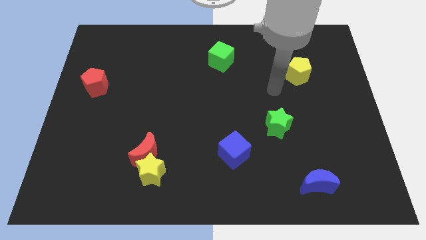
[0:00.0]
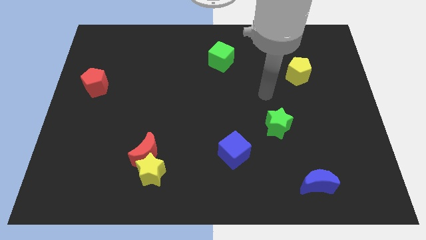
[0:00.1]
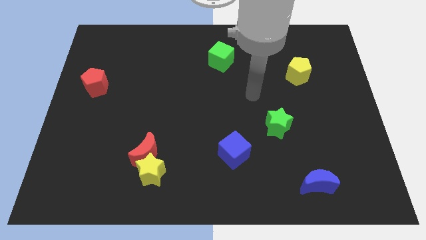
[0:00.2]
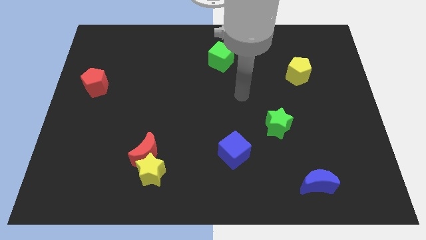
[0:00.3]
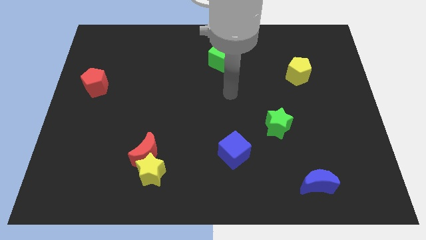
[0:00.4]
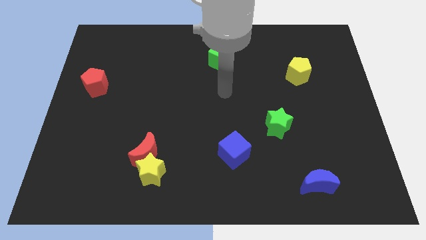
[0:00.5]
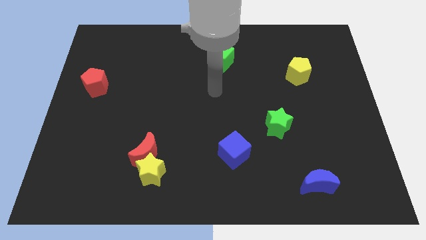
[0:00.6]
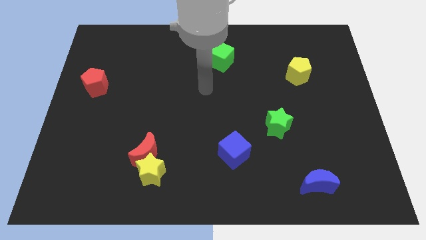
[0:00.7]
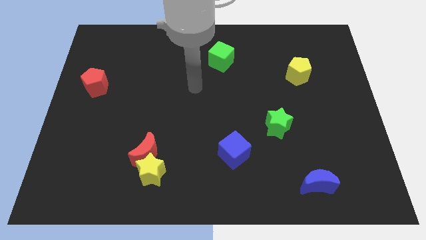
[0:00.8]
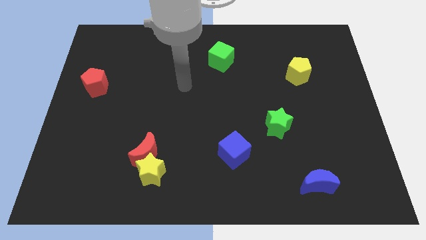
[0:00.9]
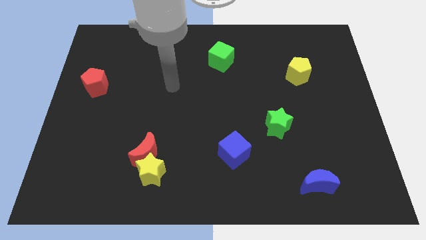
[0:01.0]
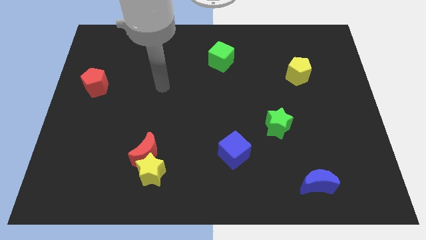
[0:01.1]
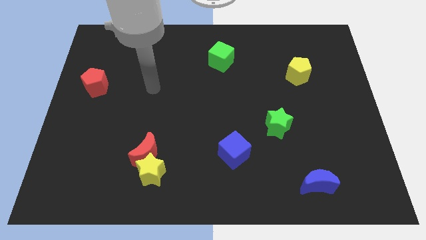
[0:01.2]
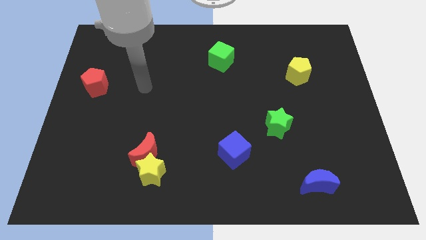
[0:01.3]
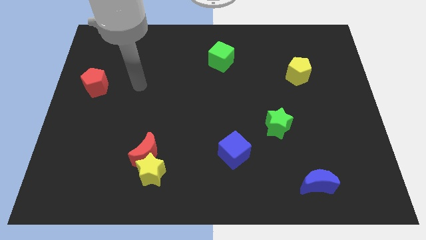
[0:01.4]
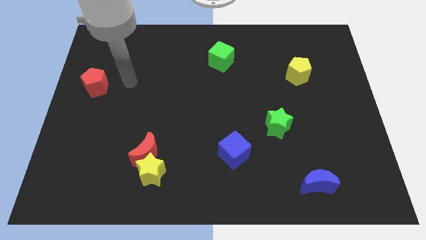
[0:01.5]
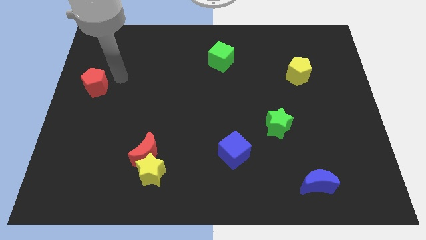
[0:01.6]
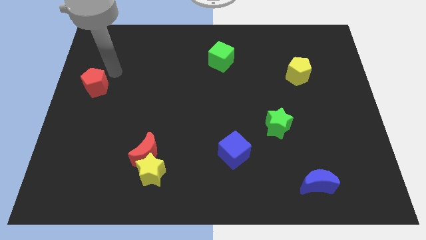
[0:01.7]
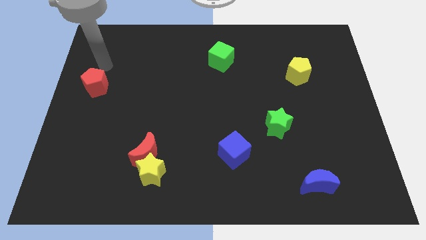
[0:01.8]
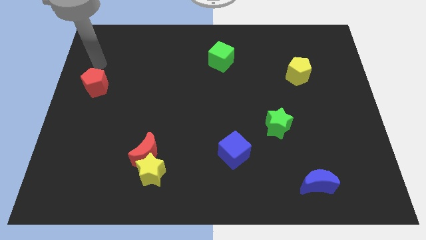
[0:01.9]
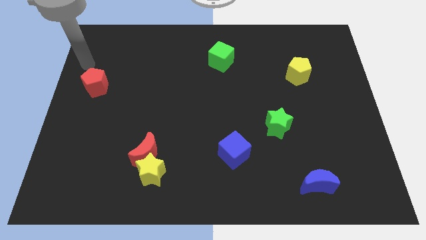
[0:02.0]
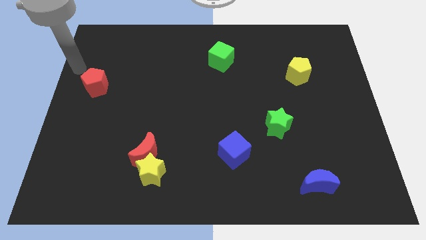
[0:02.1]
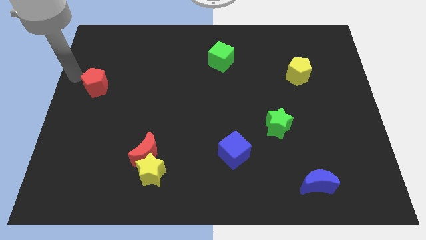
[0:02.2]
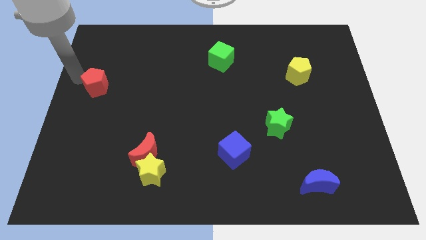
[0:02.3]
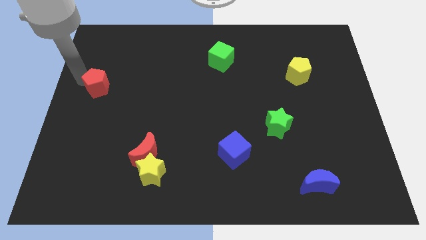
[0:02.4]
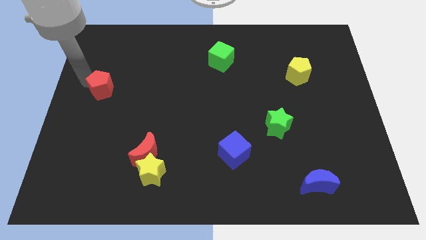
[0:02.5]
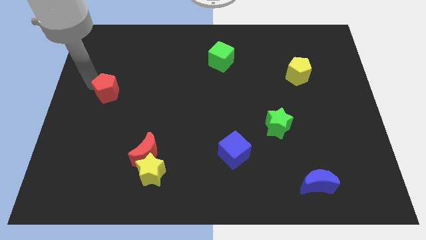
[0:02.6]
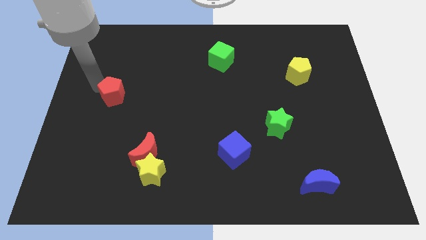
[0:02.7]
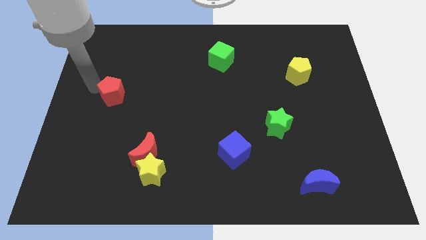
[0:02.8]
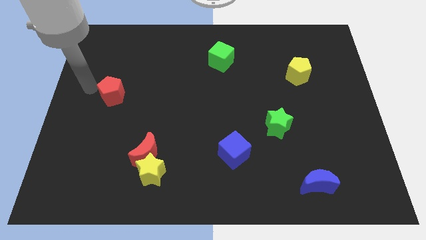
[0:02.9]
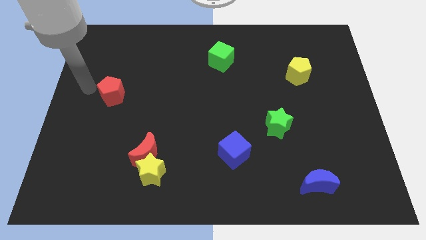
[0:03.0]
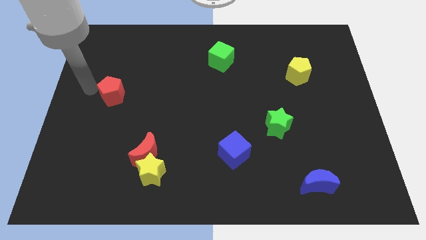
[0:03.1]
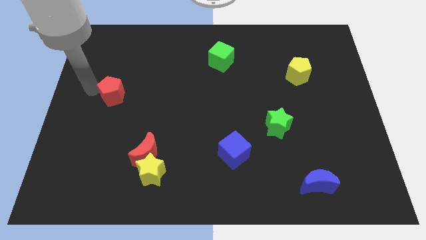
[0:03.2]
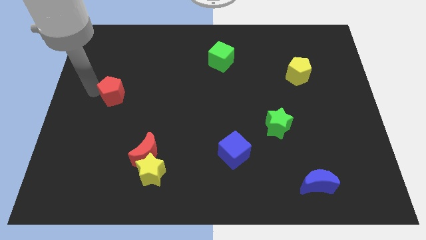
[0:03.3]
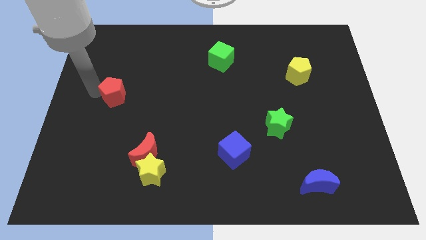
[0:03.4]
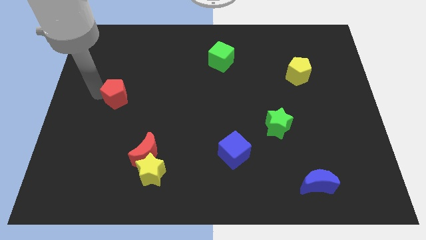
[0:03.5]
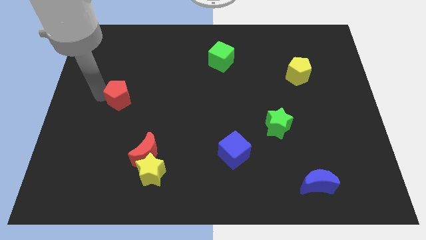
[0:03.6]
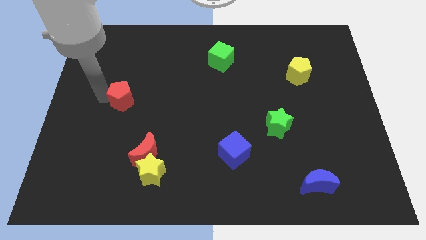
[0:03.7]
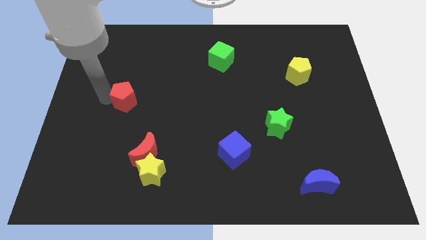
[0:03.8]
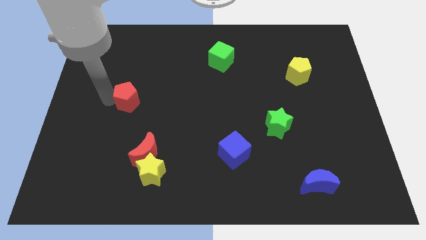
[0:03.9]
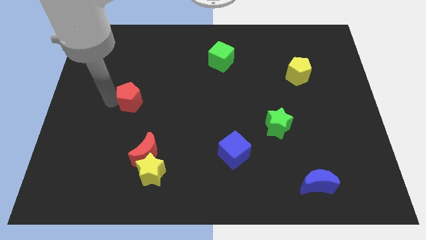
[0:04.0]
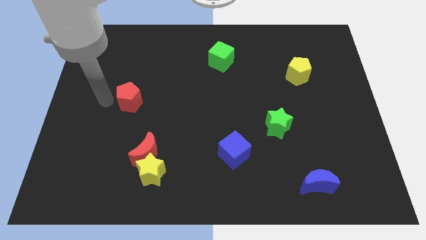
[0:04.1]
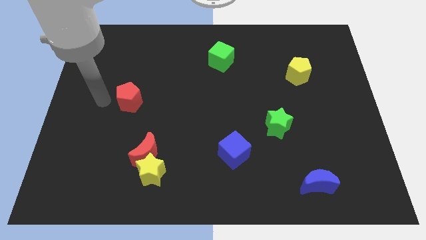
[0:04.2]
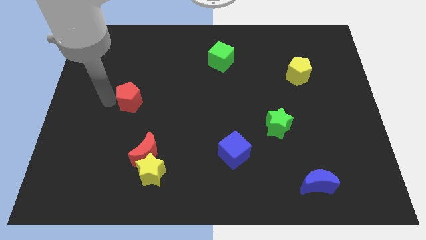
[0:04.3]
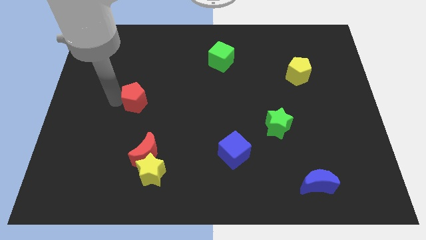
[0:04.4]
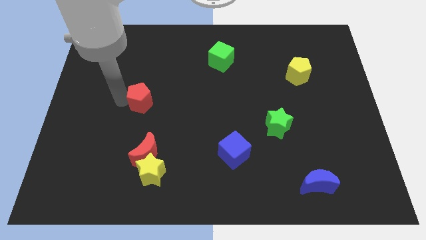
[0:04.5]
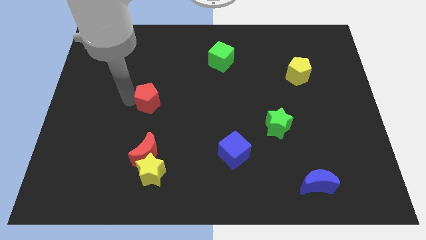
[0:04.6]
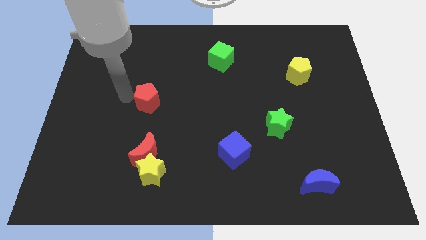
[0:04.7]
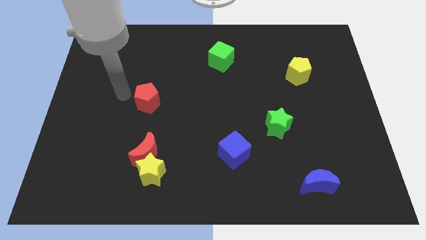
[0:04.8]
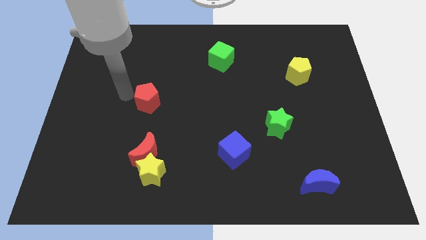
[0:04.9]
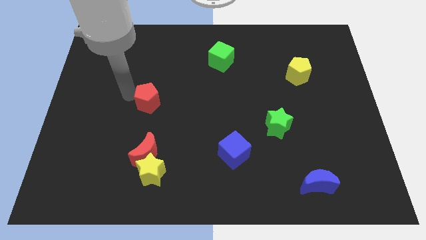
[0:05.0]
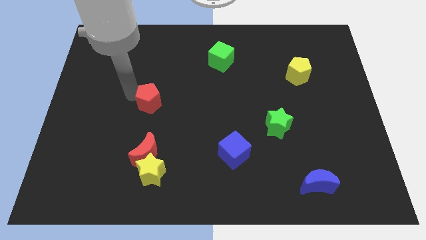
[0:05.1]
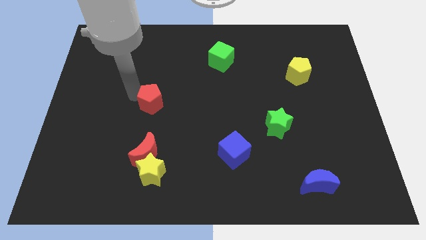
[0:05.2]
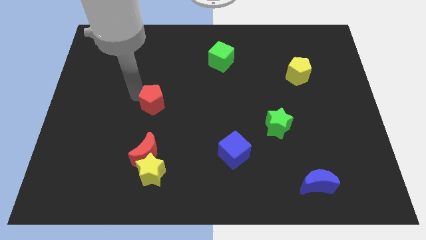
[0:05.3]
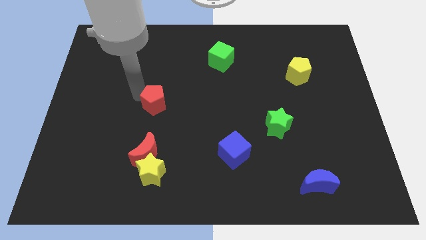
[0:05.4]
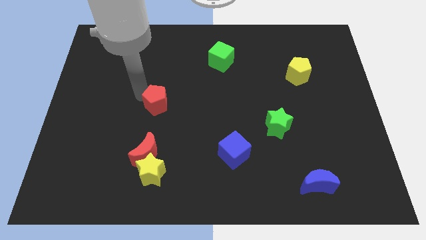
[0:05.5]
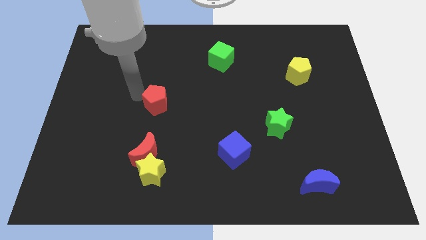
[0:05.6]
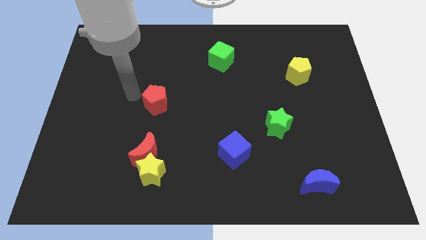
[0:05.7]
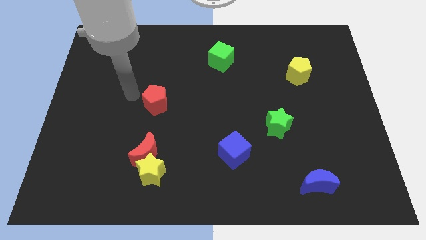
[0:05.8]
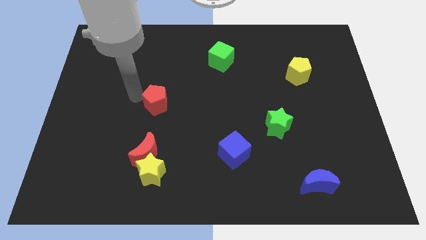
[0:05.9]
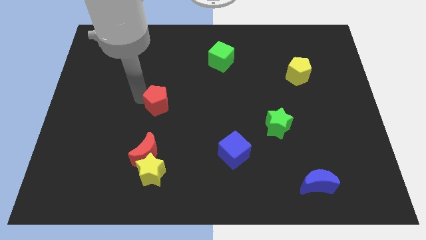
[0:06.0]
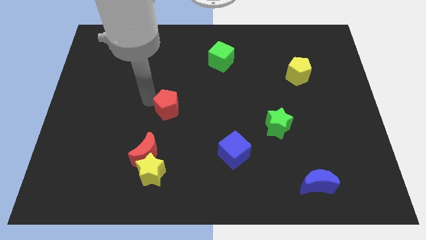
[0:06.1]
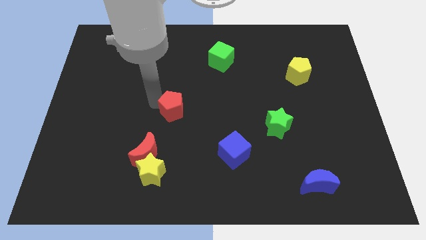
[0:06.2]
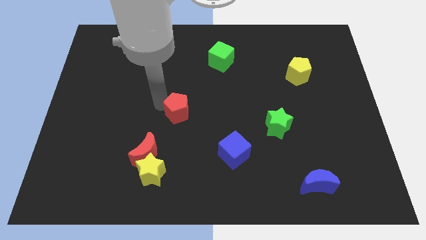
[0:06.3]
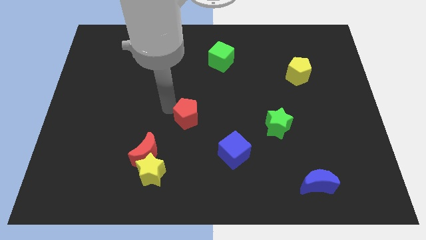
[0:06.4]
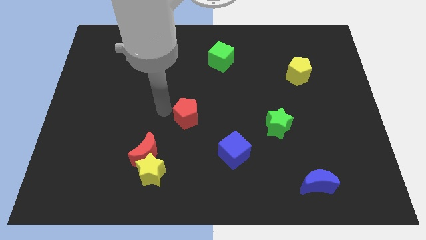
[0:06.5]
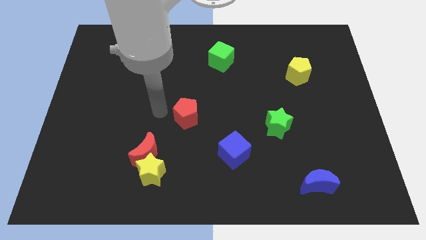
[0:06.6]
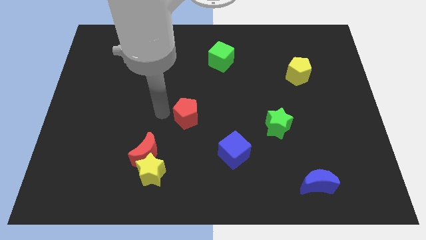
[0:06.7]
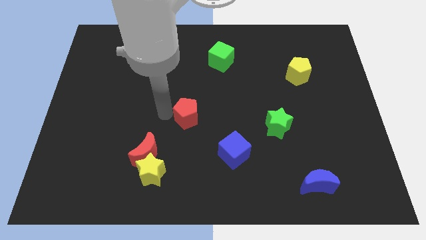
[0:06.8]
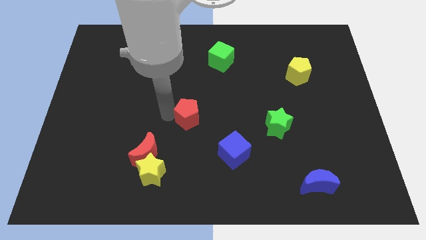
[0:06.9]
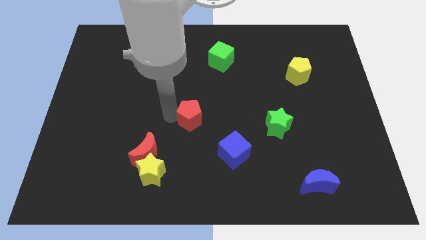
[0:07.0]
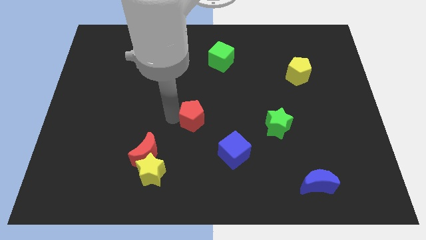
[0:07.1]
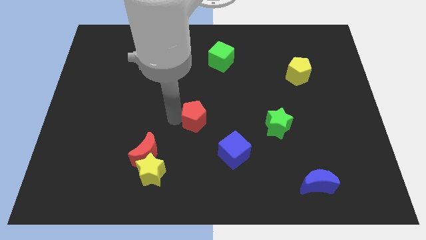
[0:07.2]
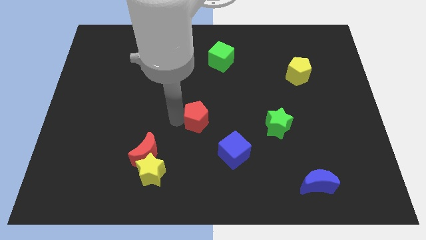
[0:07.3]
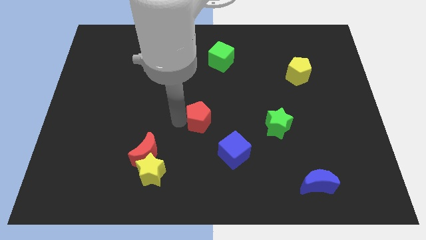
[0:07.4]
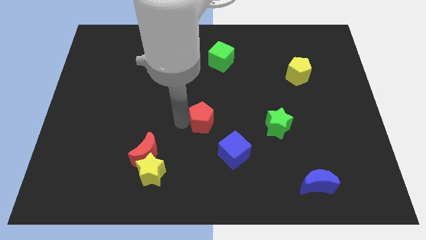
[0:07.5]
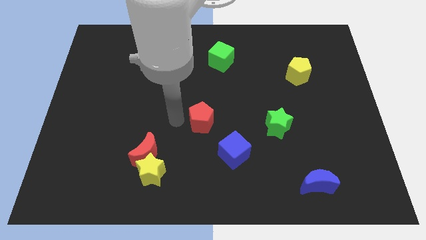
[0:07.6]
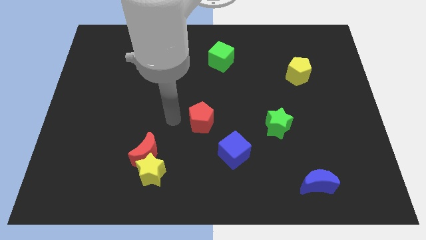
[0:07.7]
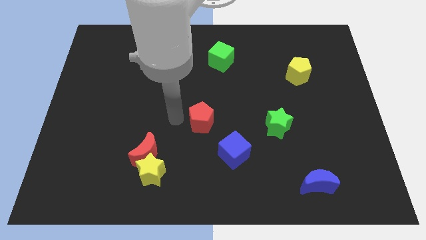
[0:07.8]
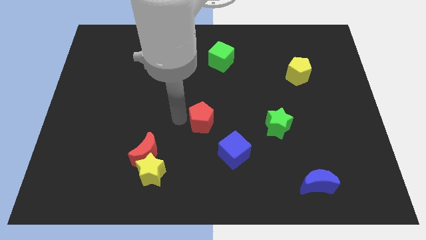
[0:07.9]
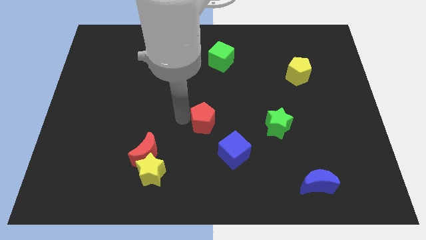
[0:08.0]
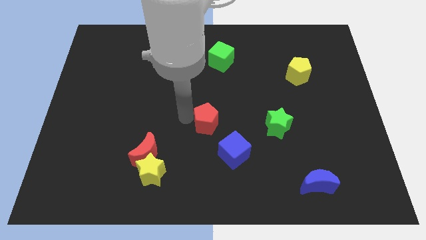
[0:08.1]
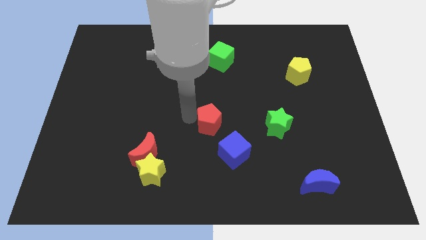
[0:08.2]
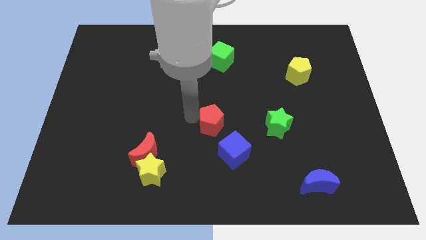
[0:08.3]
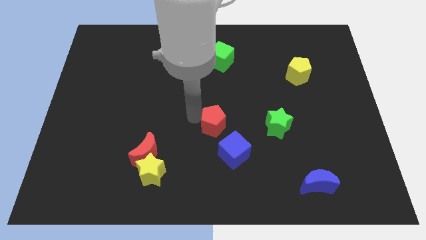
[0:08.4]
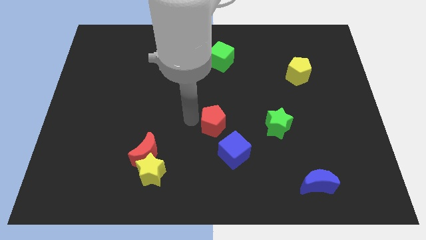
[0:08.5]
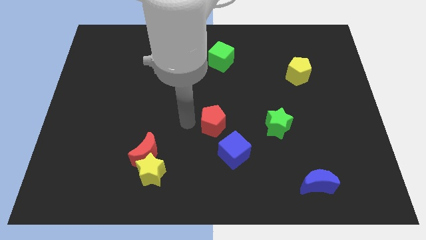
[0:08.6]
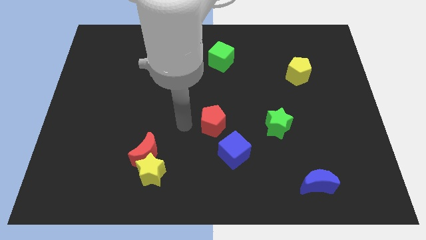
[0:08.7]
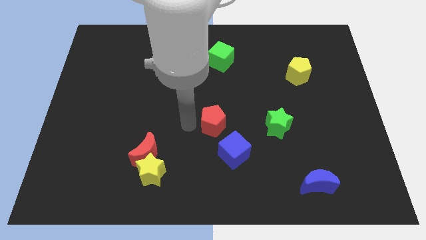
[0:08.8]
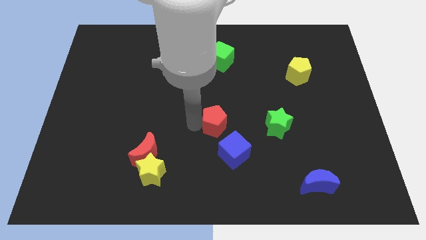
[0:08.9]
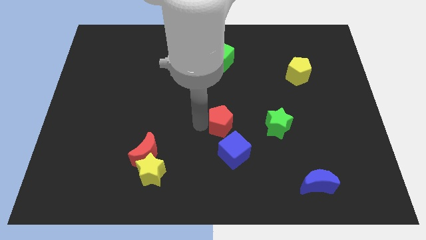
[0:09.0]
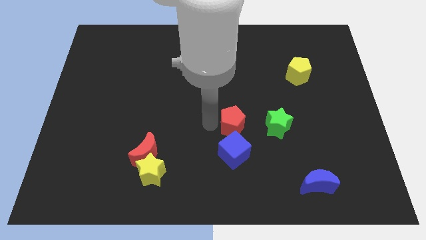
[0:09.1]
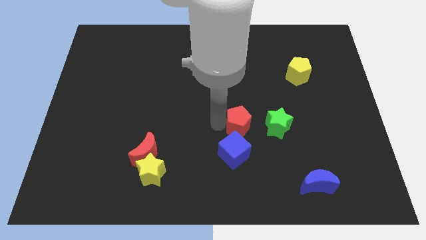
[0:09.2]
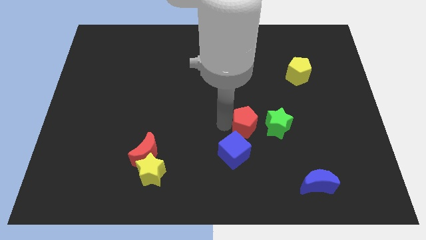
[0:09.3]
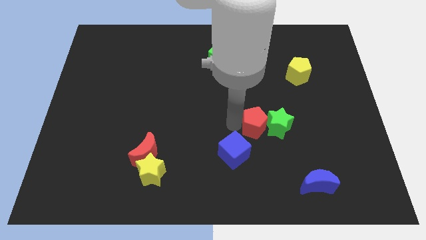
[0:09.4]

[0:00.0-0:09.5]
put the red pentagon next to the green star
